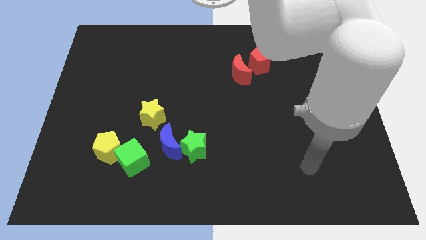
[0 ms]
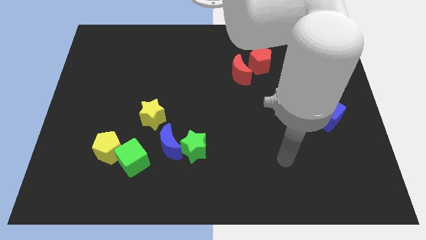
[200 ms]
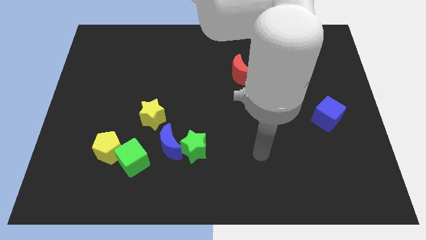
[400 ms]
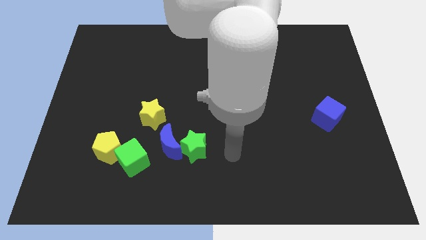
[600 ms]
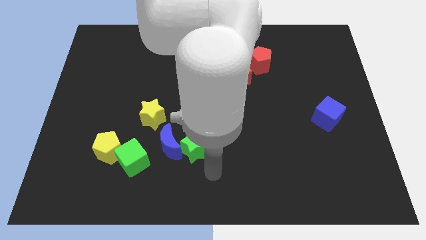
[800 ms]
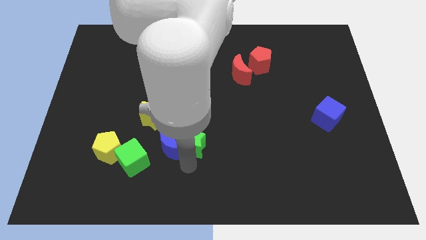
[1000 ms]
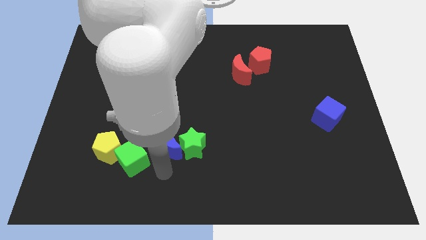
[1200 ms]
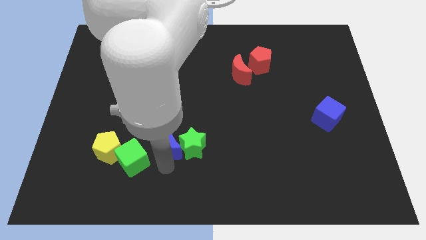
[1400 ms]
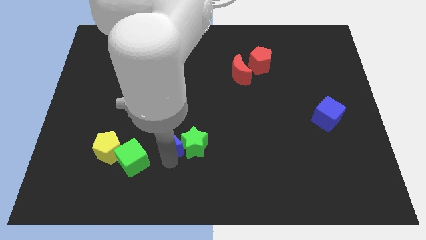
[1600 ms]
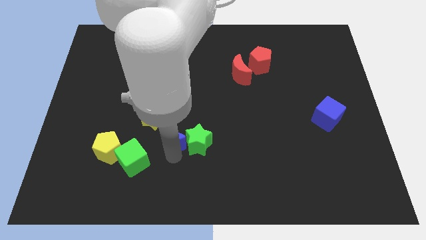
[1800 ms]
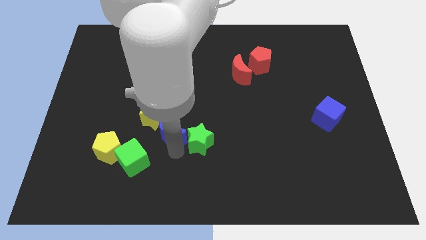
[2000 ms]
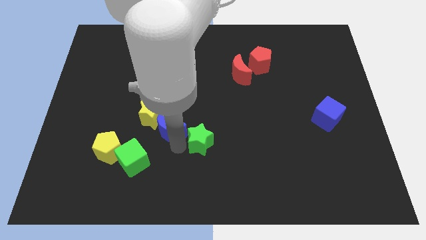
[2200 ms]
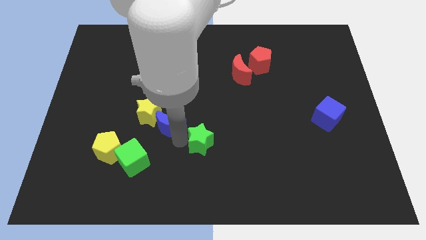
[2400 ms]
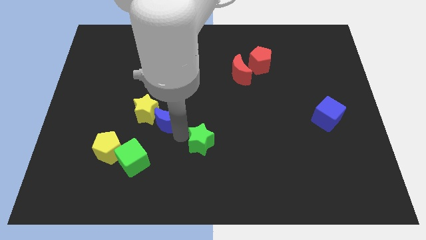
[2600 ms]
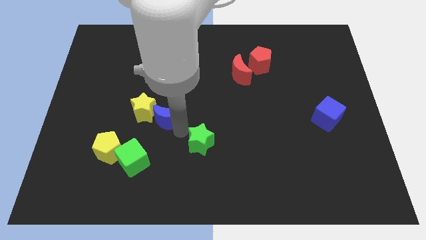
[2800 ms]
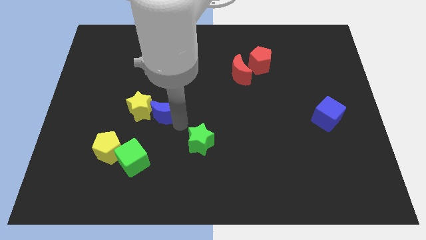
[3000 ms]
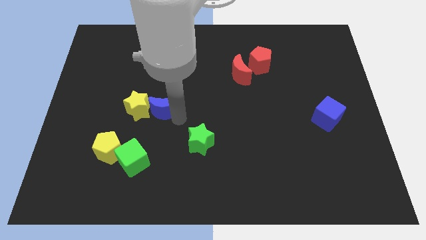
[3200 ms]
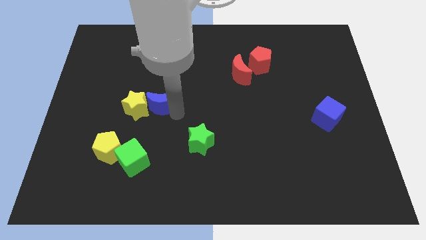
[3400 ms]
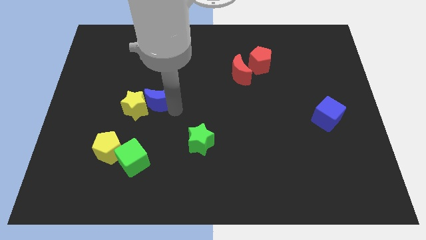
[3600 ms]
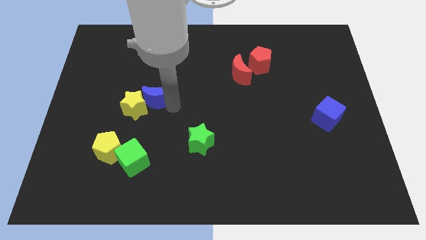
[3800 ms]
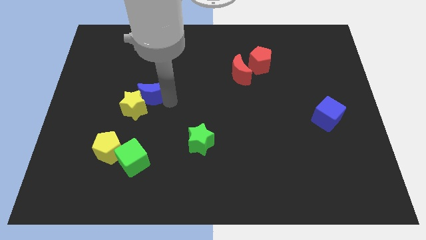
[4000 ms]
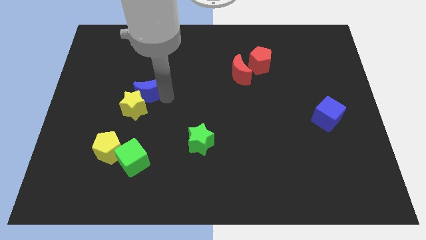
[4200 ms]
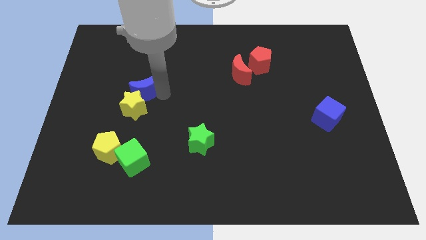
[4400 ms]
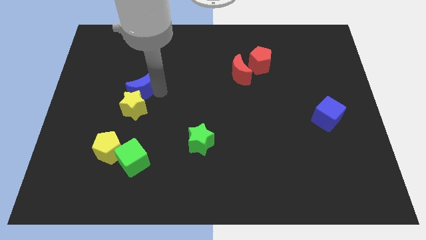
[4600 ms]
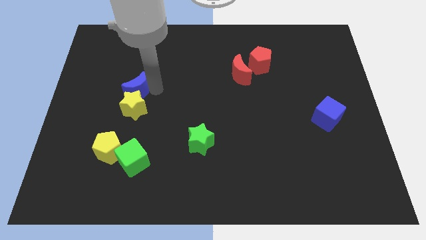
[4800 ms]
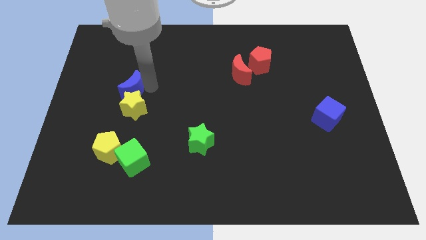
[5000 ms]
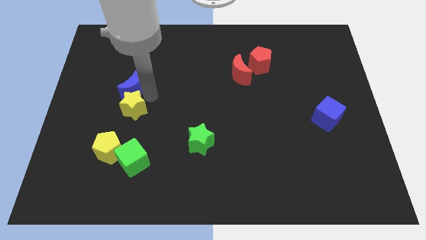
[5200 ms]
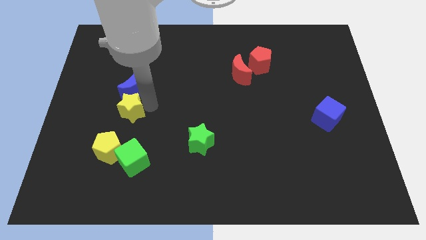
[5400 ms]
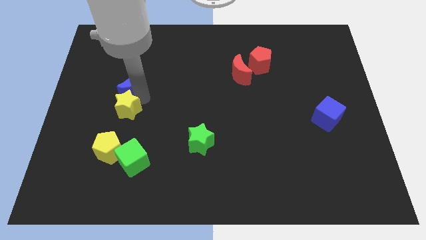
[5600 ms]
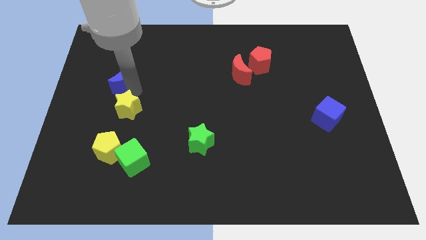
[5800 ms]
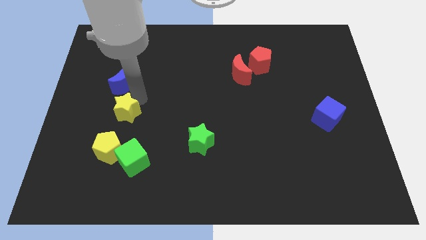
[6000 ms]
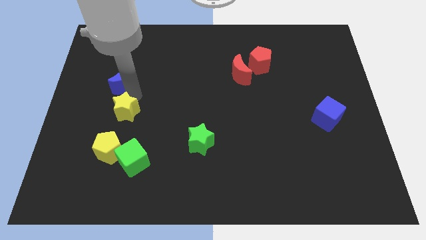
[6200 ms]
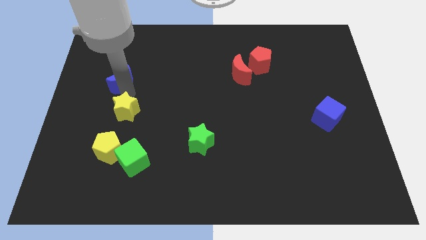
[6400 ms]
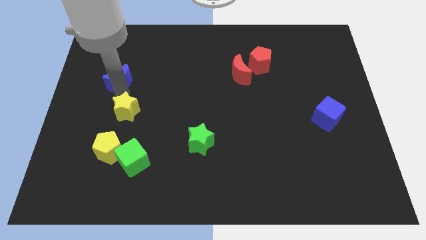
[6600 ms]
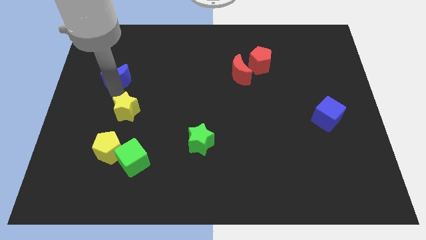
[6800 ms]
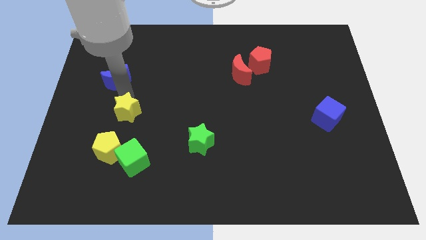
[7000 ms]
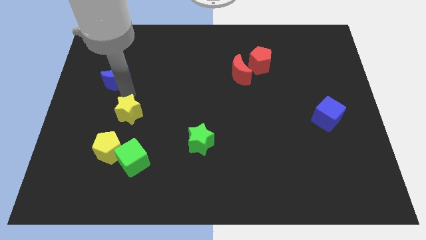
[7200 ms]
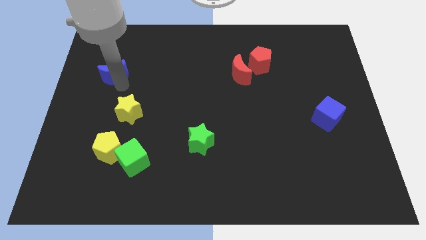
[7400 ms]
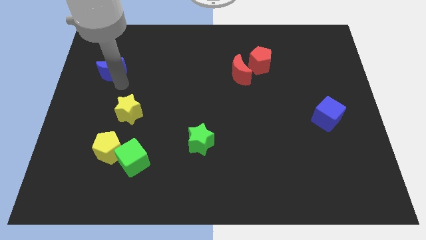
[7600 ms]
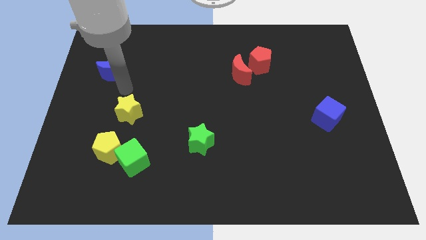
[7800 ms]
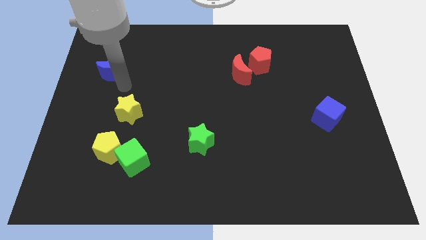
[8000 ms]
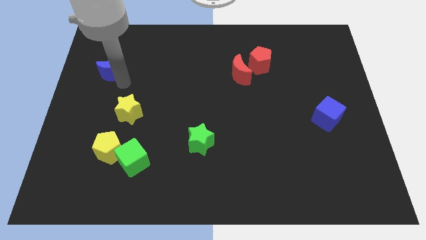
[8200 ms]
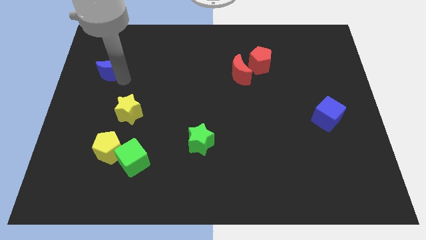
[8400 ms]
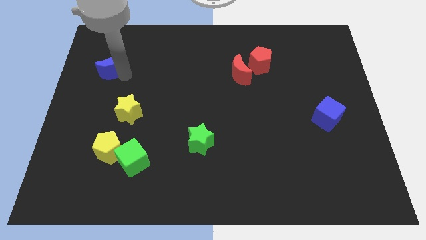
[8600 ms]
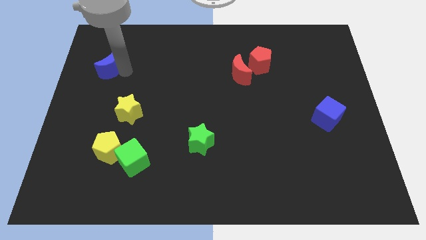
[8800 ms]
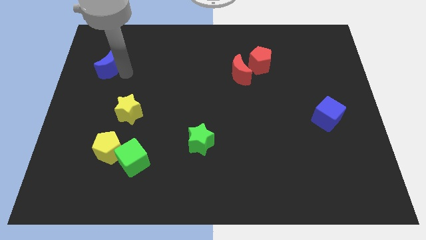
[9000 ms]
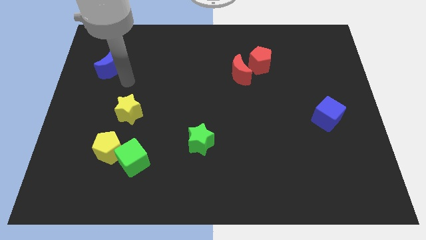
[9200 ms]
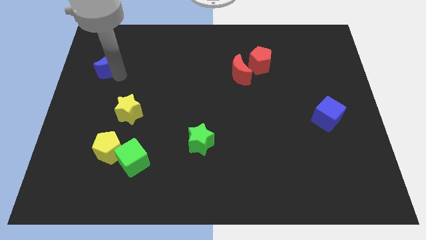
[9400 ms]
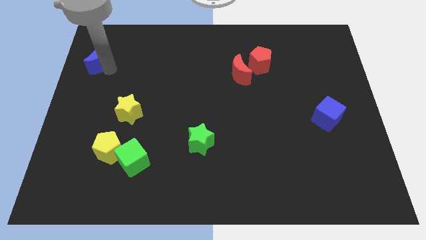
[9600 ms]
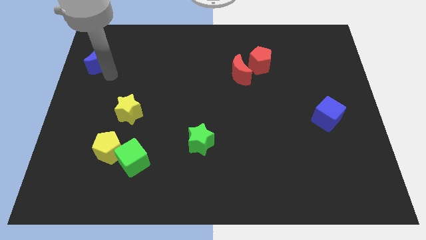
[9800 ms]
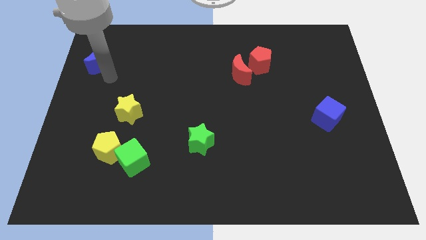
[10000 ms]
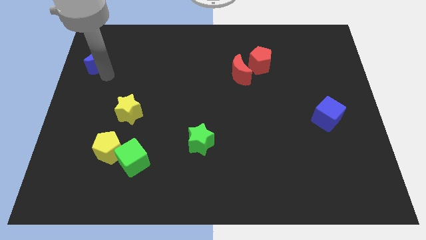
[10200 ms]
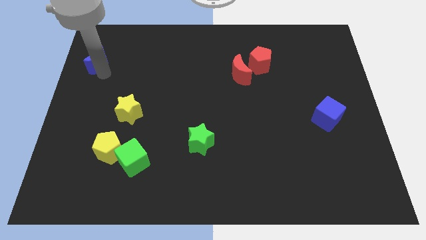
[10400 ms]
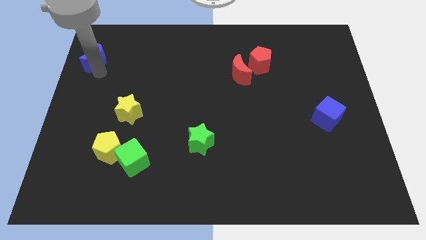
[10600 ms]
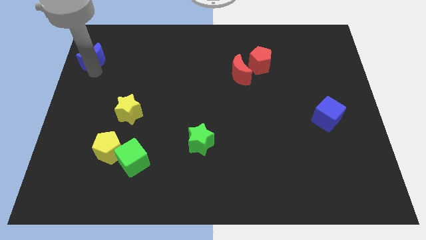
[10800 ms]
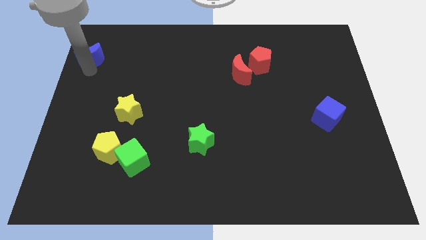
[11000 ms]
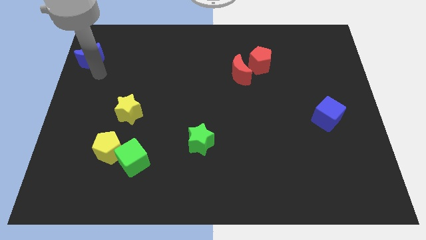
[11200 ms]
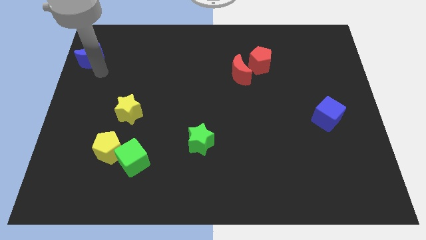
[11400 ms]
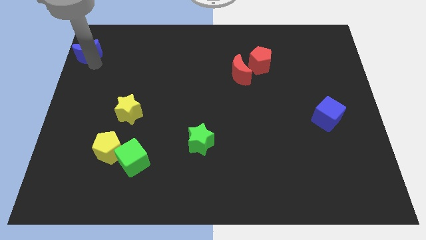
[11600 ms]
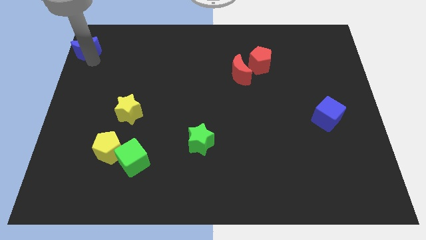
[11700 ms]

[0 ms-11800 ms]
push the blue moon to the top left of the board
